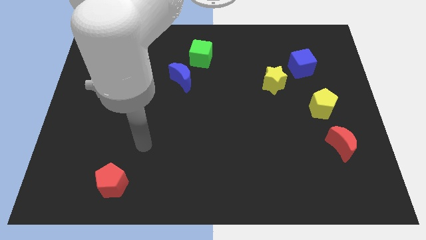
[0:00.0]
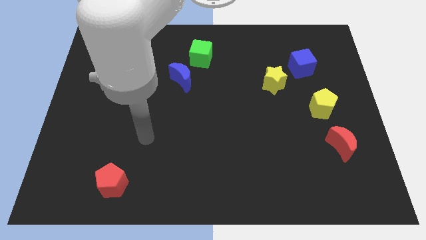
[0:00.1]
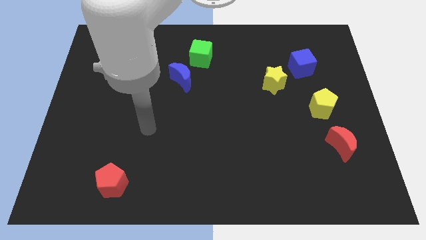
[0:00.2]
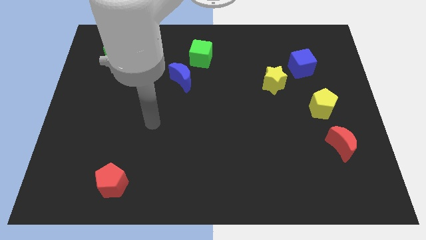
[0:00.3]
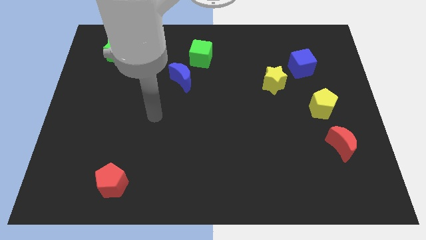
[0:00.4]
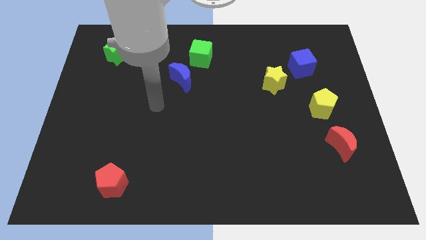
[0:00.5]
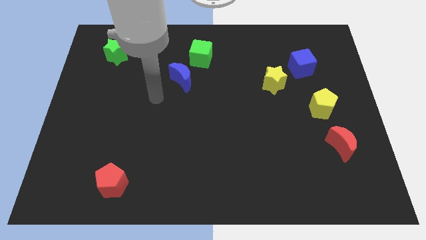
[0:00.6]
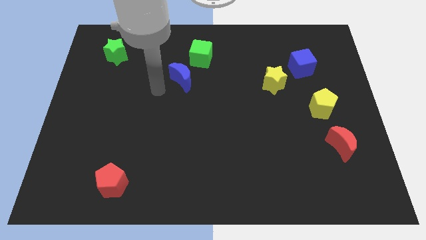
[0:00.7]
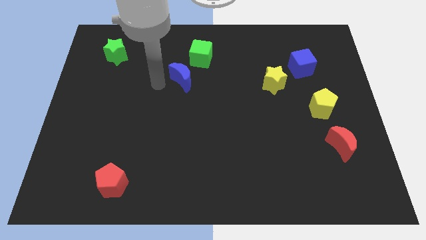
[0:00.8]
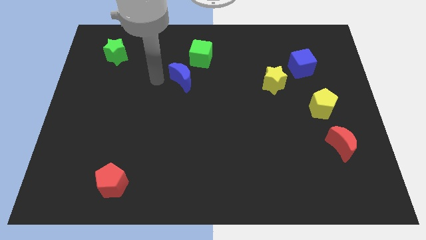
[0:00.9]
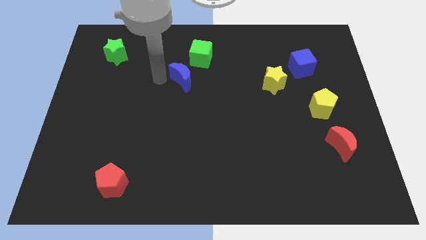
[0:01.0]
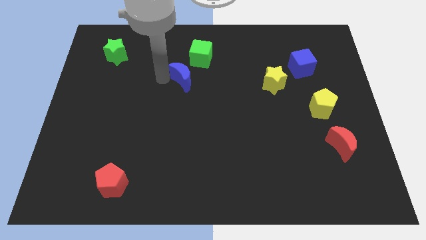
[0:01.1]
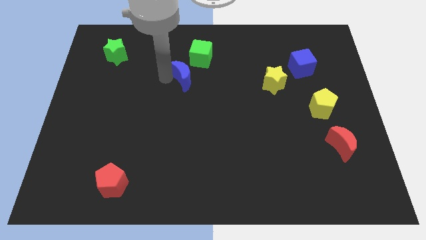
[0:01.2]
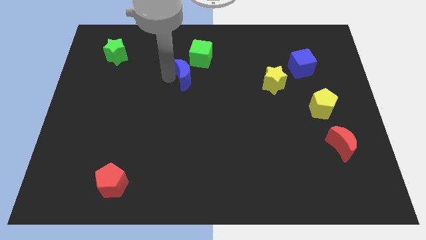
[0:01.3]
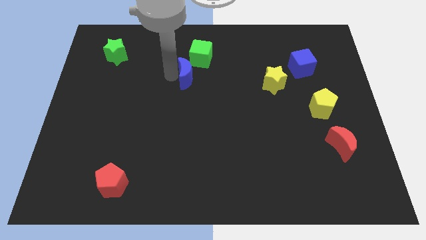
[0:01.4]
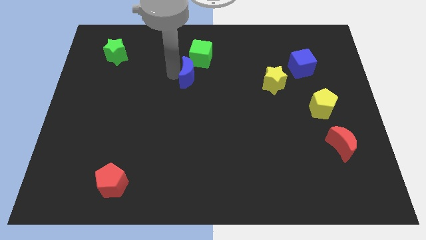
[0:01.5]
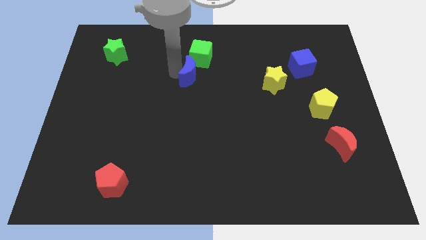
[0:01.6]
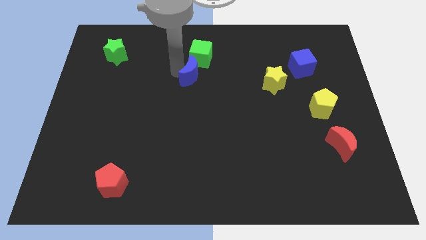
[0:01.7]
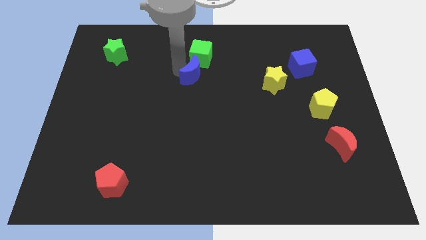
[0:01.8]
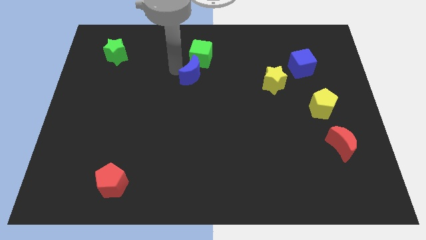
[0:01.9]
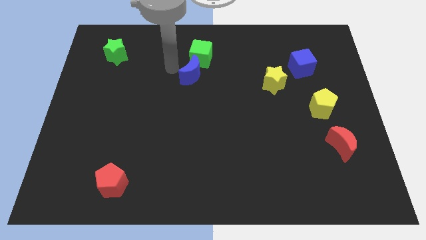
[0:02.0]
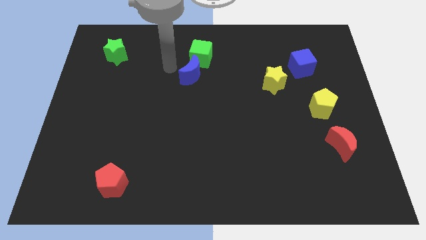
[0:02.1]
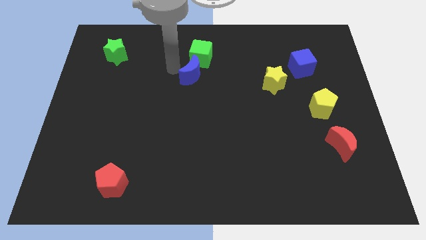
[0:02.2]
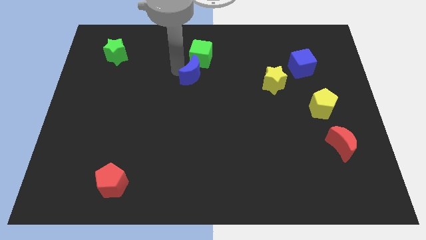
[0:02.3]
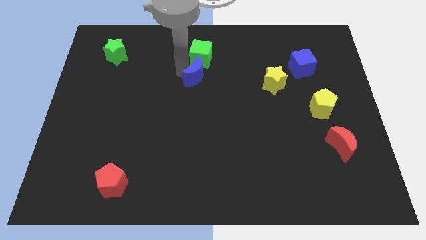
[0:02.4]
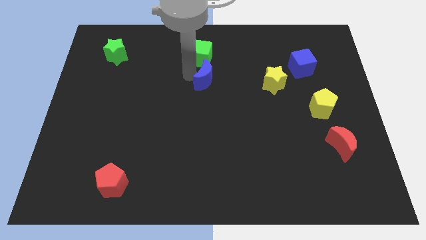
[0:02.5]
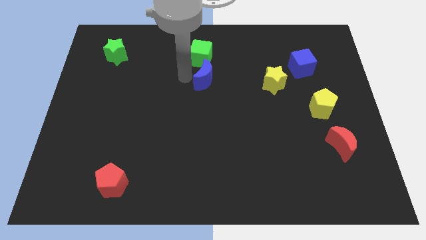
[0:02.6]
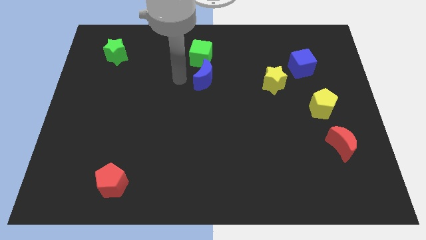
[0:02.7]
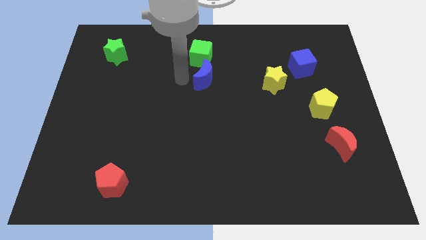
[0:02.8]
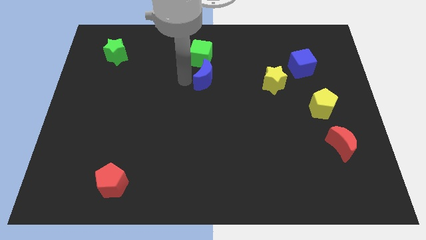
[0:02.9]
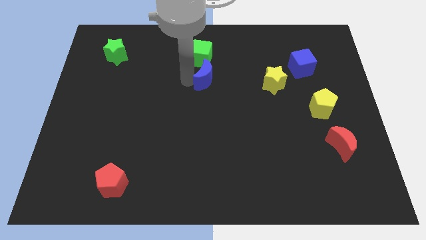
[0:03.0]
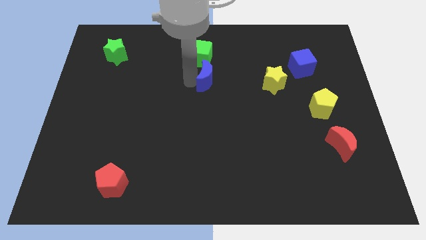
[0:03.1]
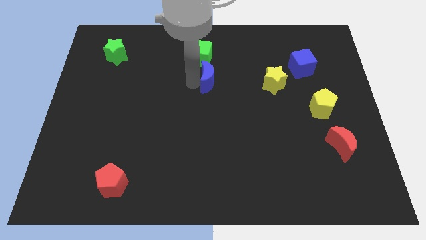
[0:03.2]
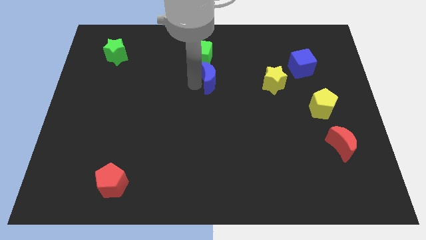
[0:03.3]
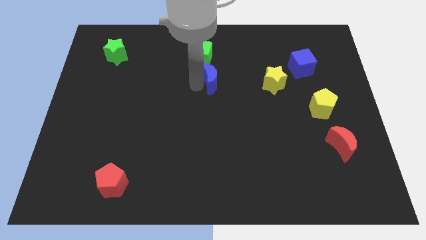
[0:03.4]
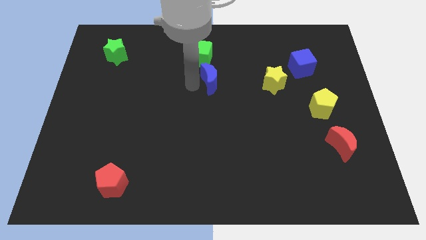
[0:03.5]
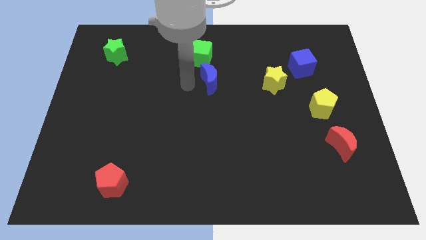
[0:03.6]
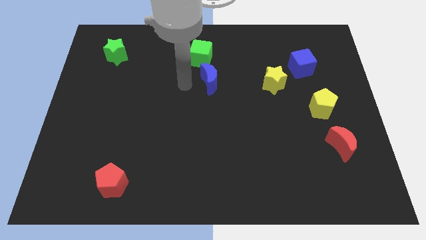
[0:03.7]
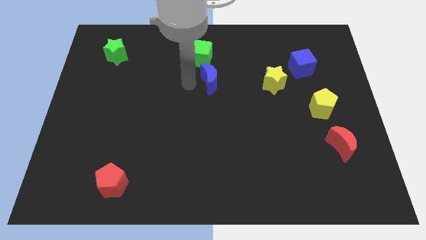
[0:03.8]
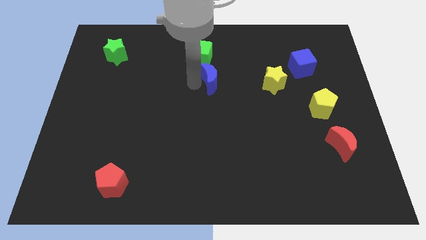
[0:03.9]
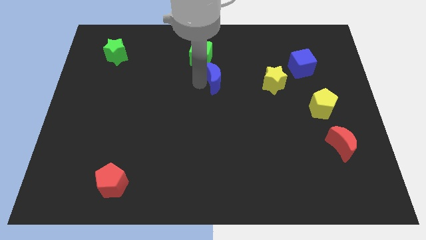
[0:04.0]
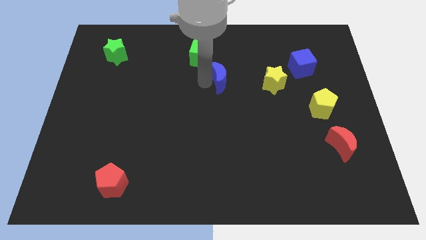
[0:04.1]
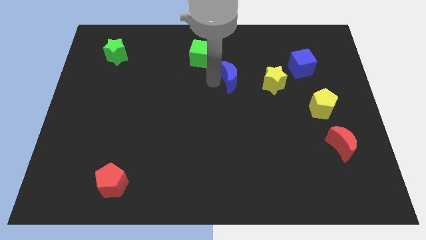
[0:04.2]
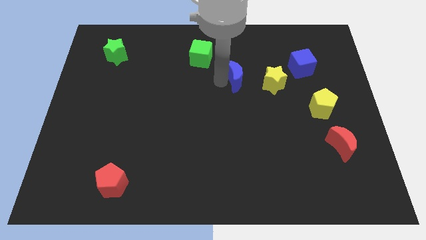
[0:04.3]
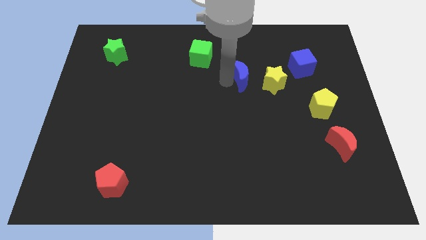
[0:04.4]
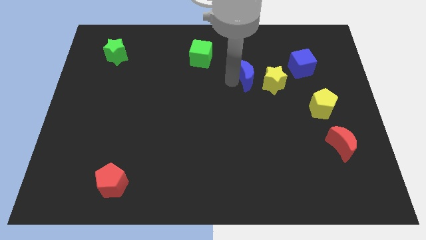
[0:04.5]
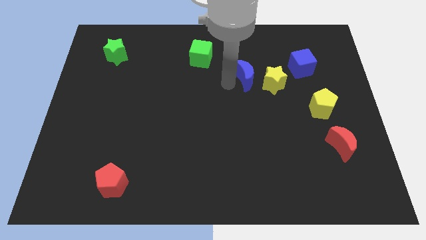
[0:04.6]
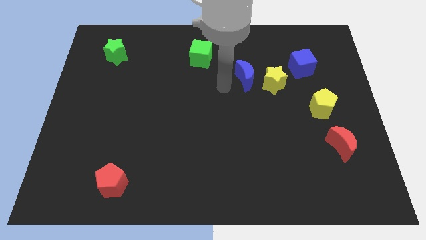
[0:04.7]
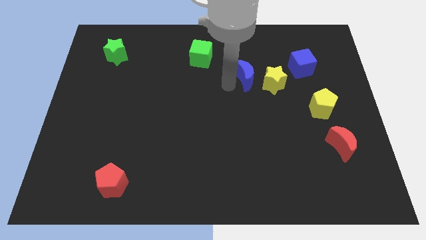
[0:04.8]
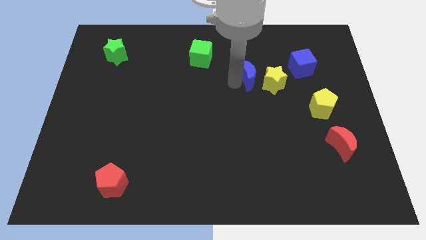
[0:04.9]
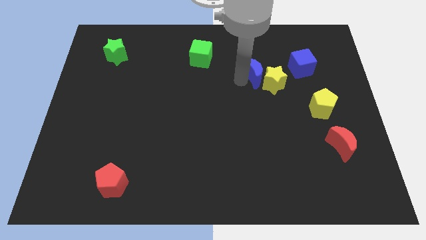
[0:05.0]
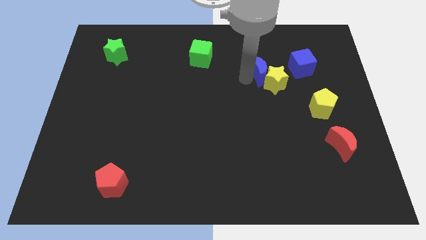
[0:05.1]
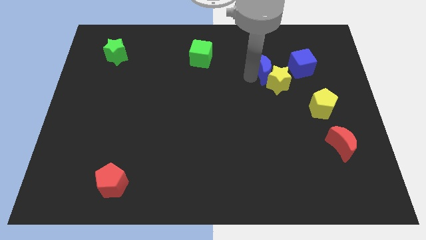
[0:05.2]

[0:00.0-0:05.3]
move the blue moon to the right

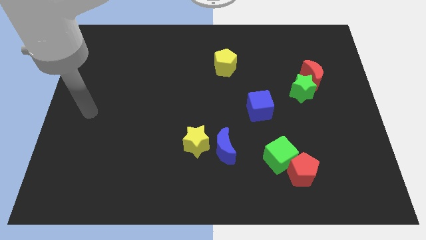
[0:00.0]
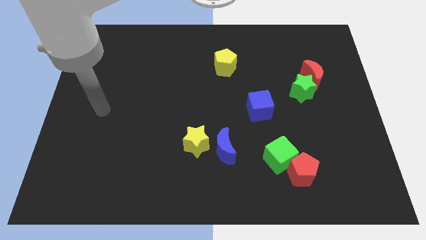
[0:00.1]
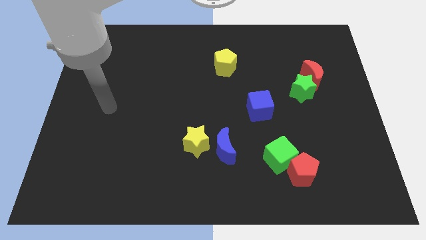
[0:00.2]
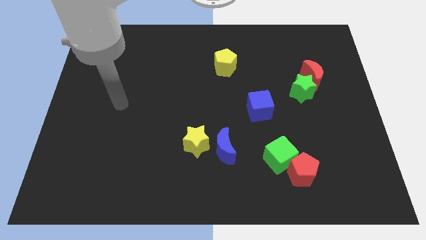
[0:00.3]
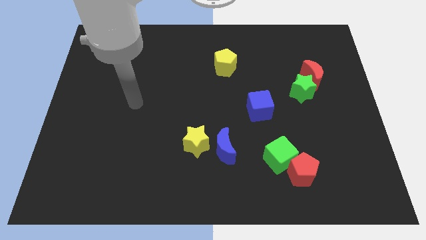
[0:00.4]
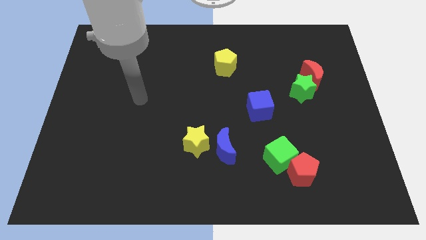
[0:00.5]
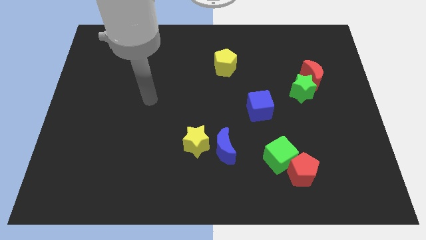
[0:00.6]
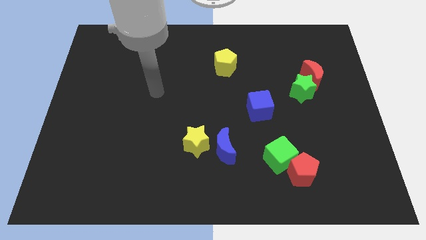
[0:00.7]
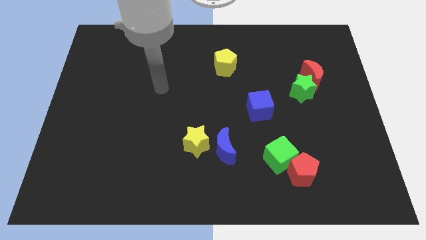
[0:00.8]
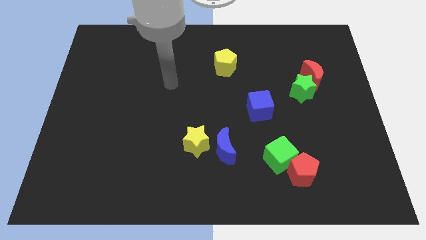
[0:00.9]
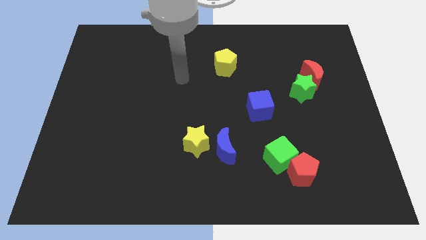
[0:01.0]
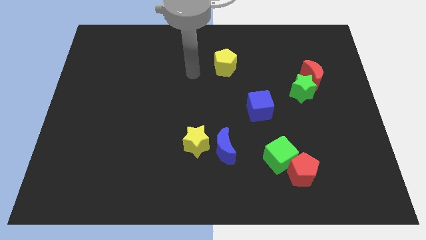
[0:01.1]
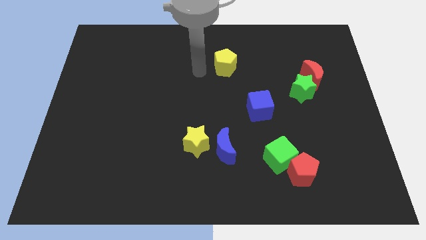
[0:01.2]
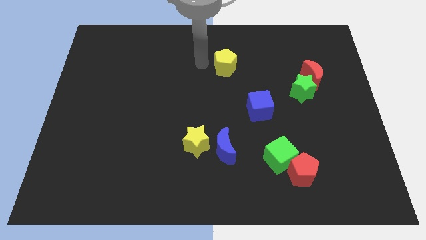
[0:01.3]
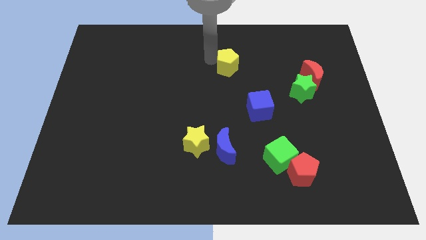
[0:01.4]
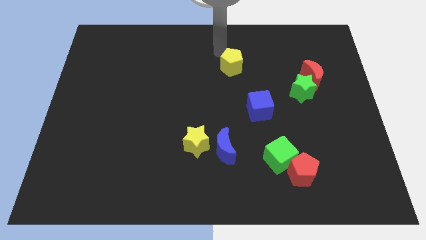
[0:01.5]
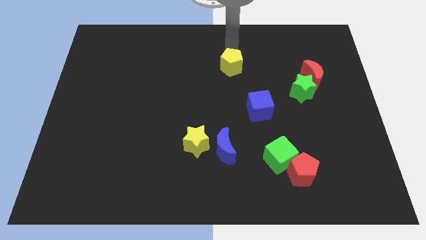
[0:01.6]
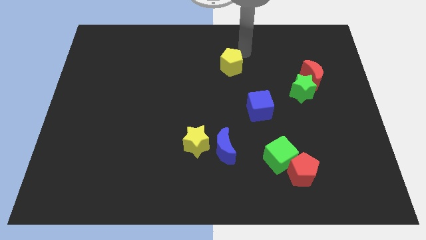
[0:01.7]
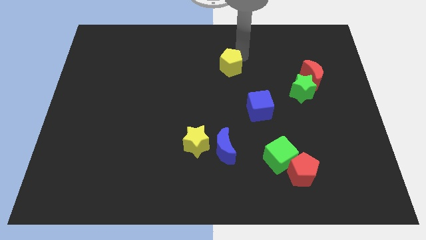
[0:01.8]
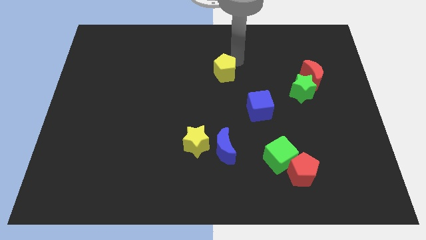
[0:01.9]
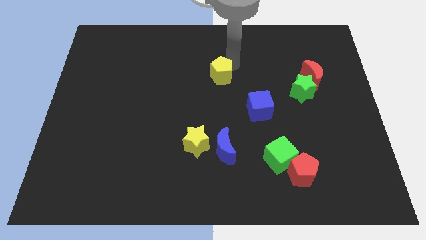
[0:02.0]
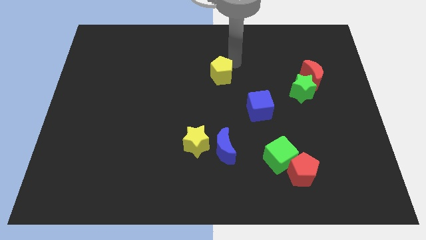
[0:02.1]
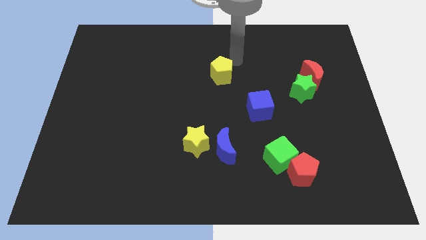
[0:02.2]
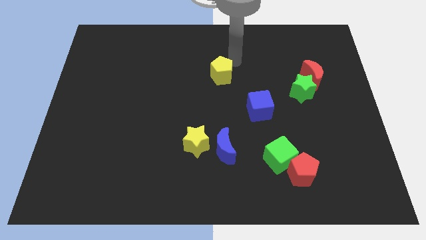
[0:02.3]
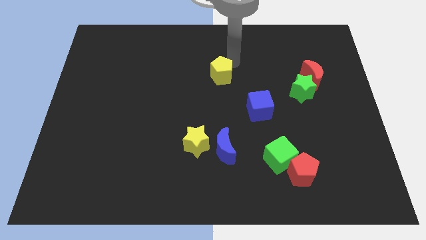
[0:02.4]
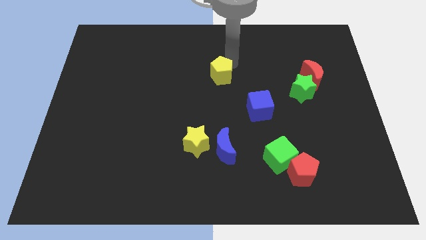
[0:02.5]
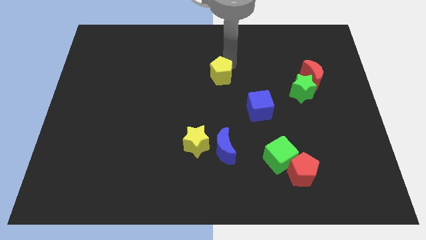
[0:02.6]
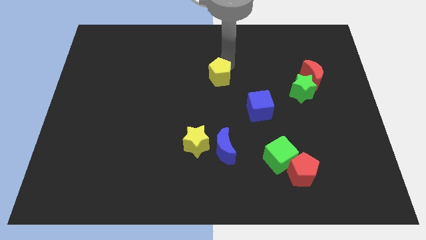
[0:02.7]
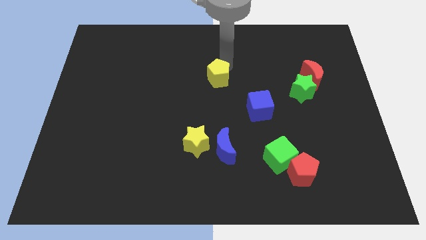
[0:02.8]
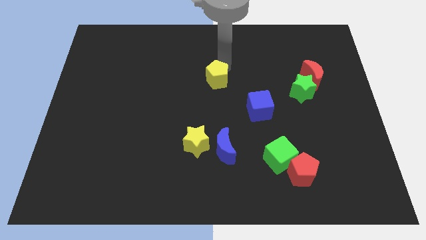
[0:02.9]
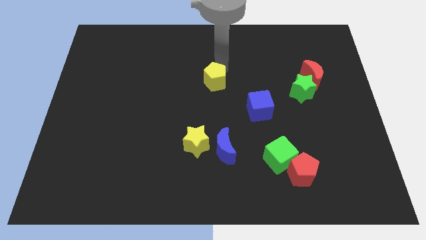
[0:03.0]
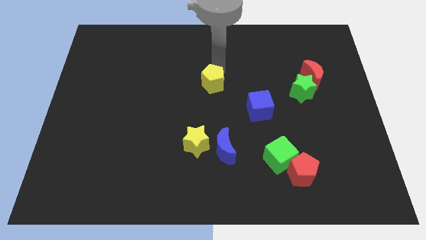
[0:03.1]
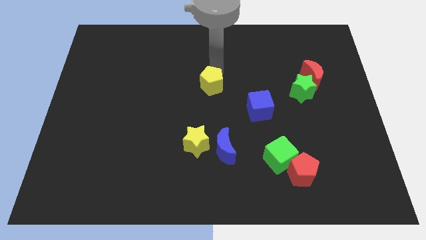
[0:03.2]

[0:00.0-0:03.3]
slightly push the yellow pentagon downwards and to the left diagonally
